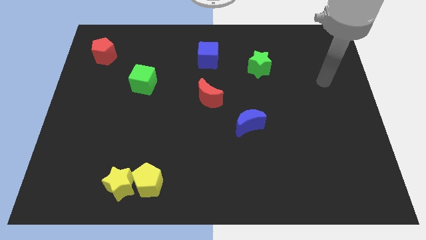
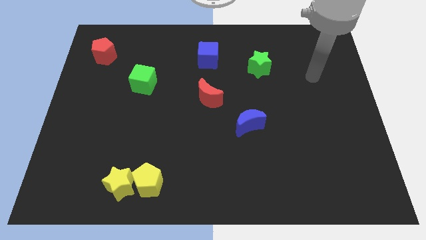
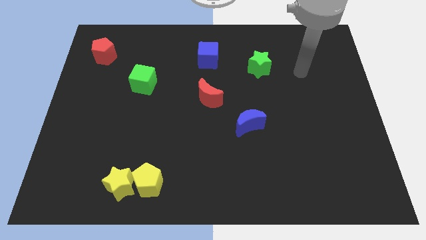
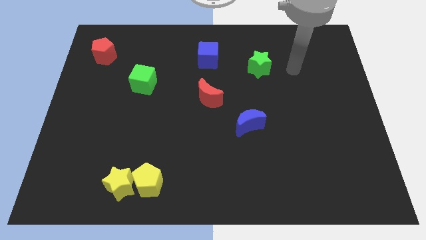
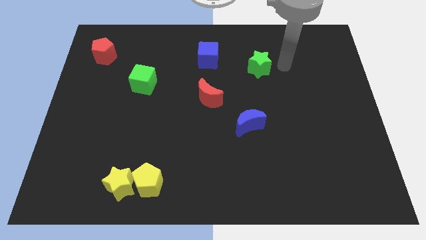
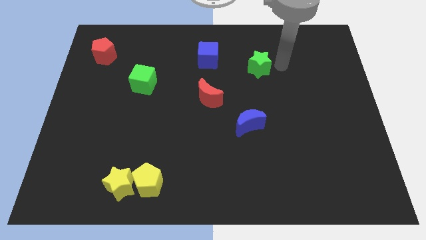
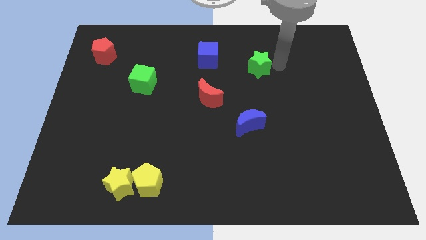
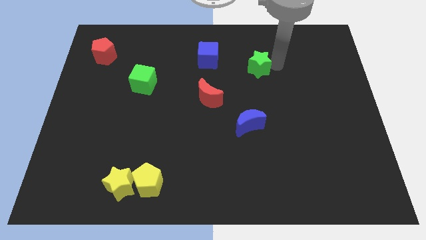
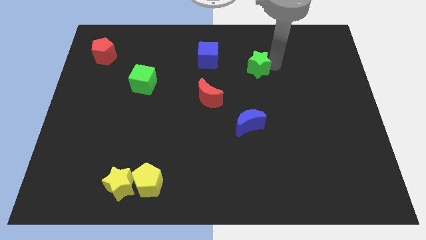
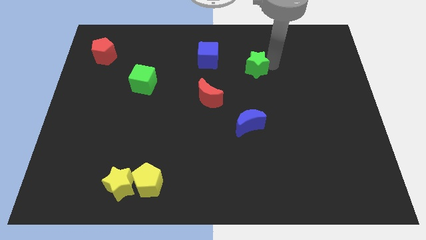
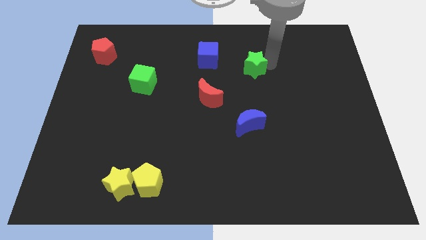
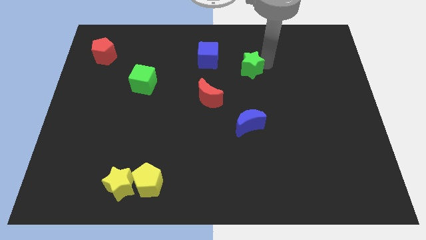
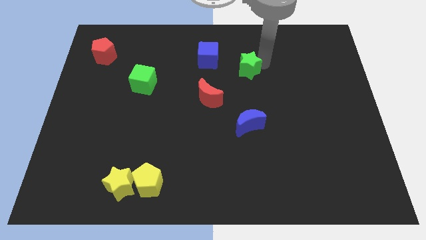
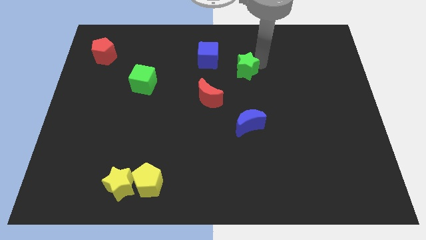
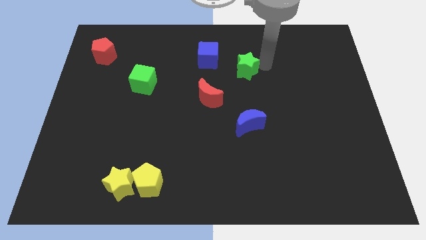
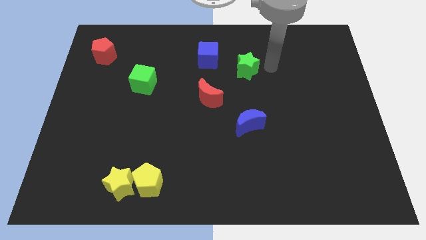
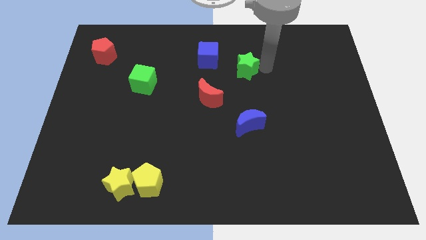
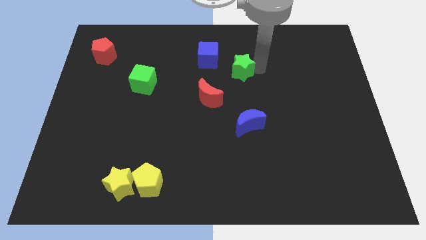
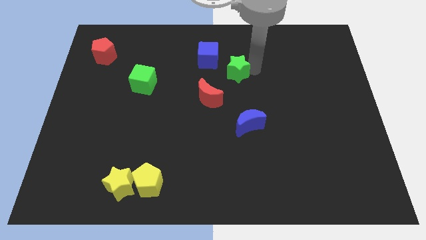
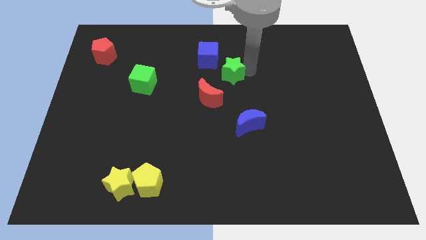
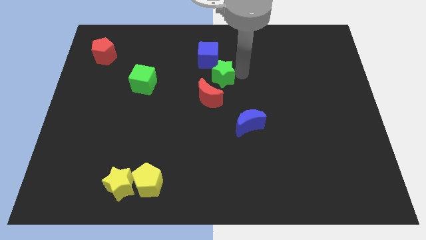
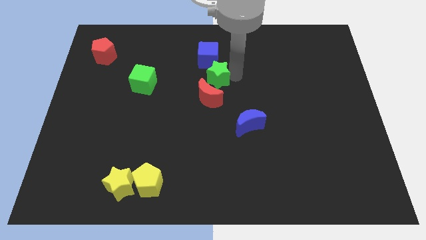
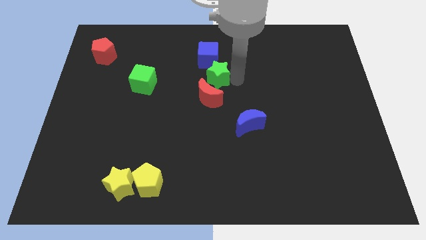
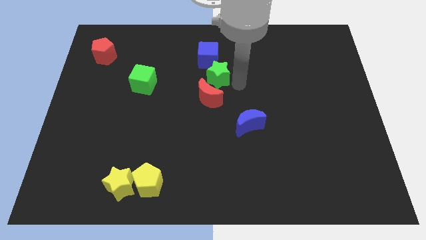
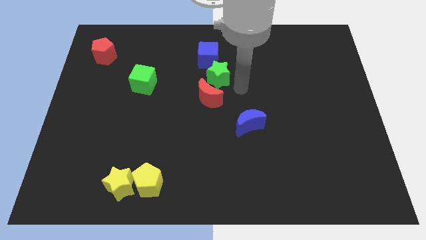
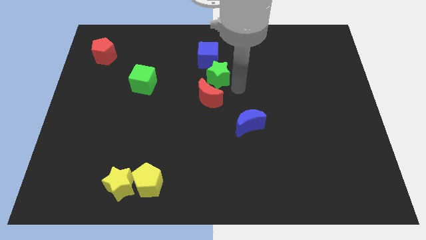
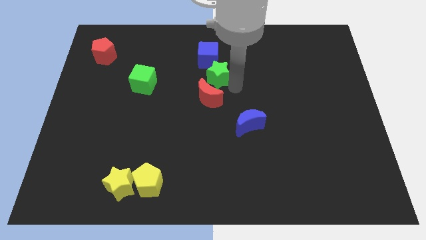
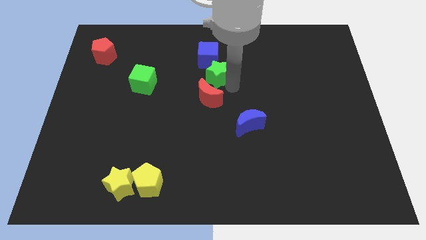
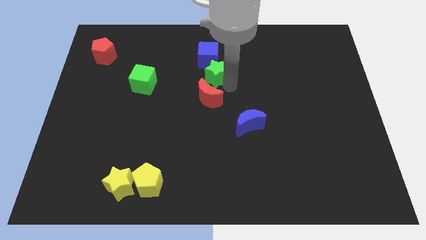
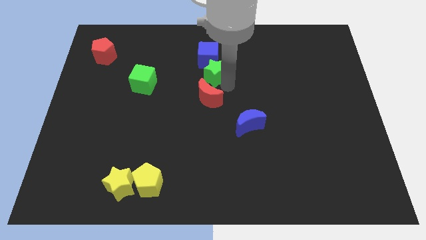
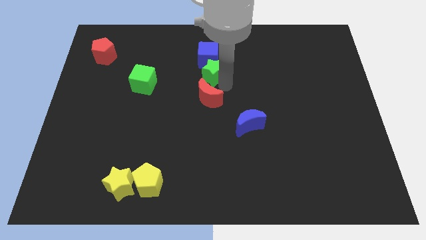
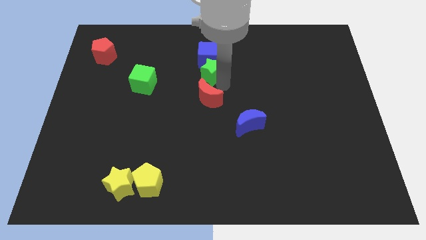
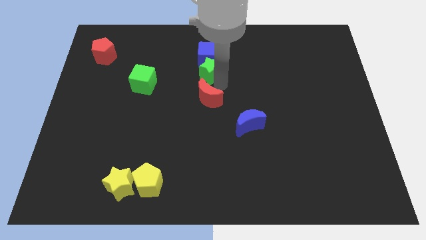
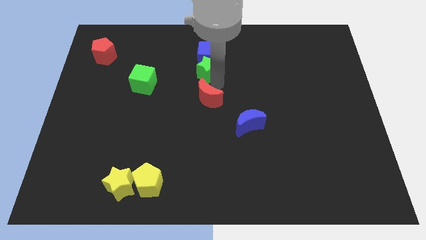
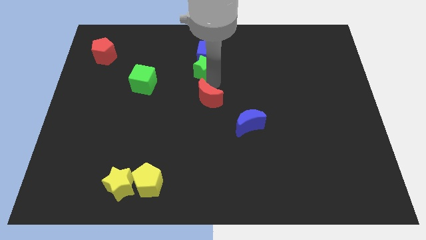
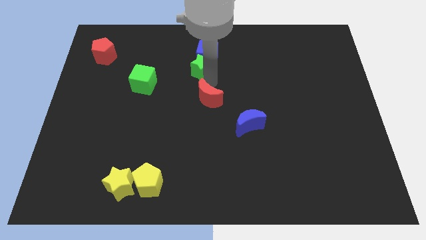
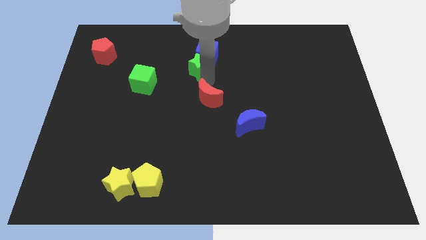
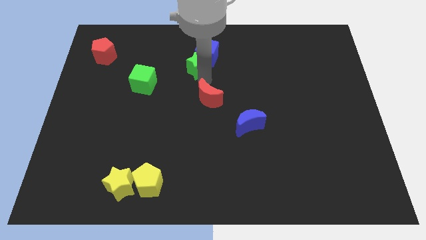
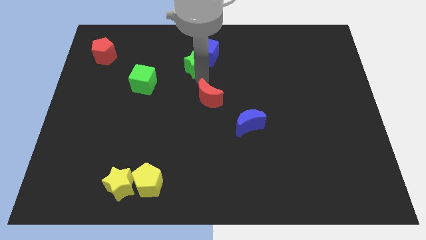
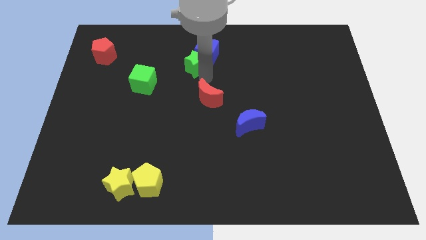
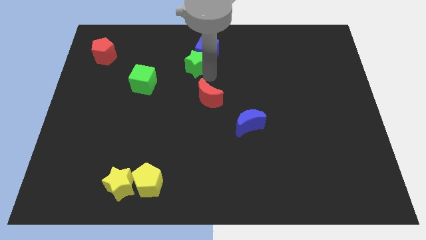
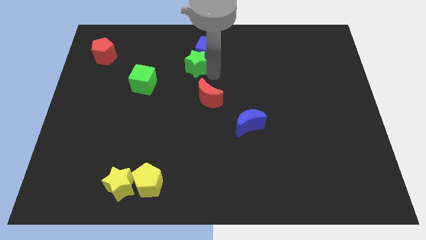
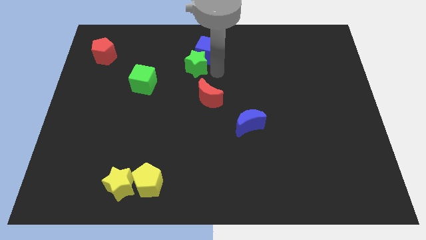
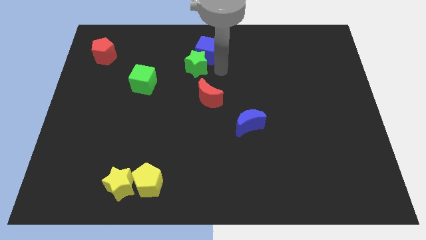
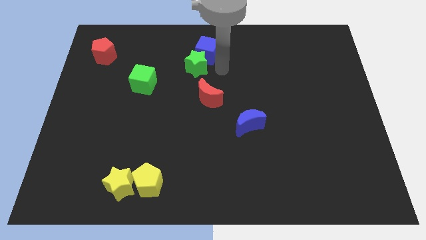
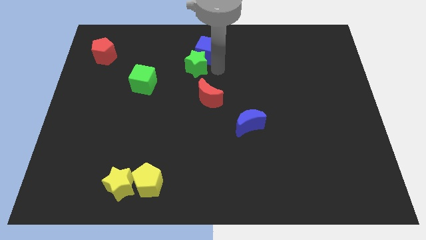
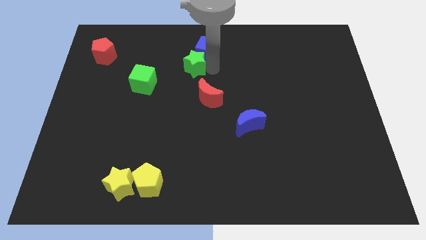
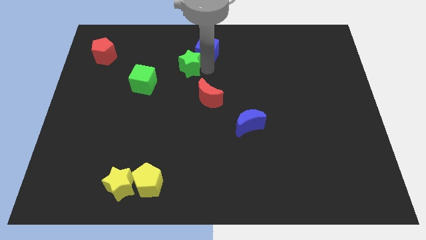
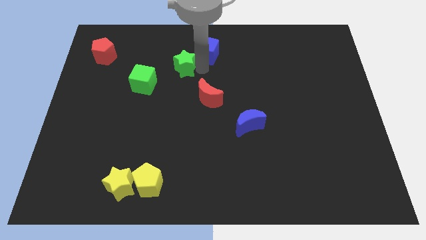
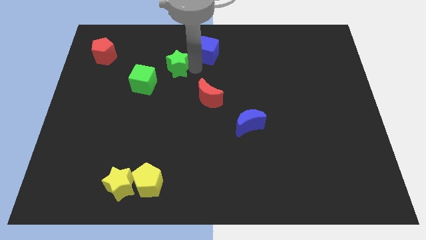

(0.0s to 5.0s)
slide the green star to the left

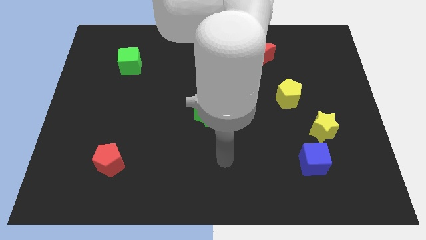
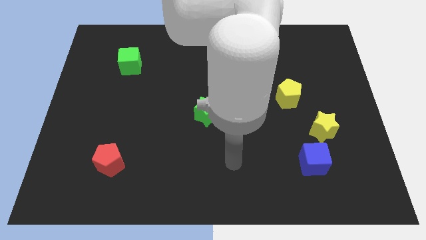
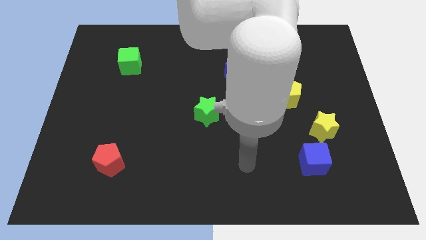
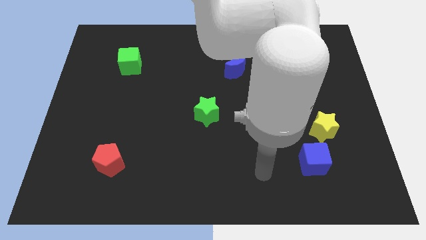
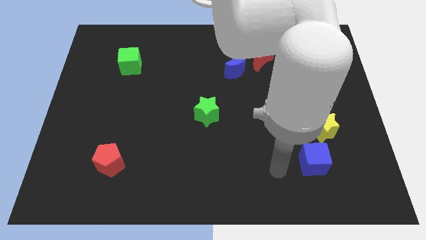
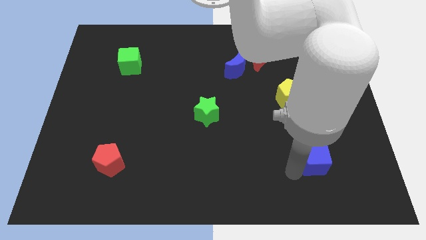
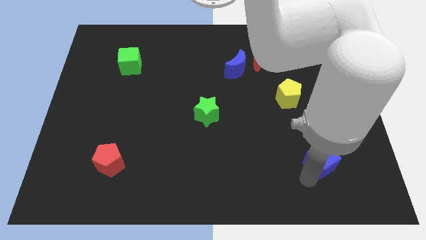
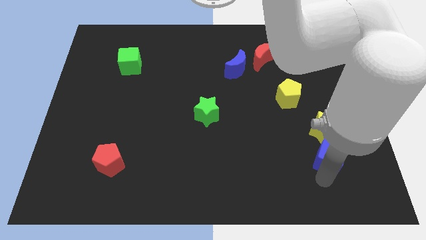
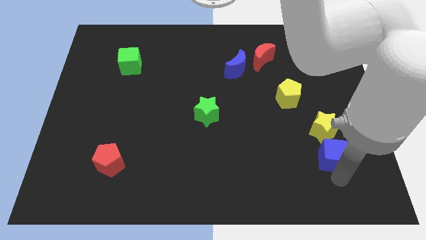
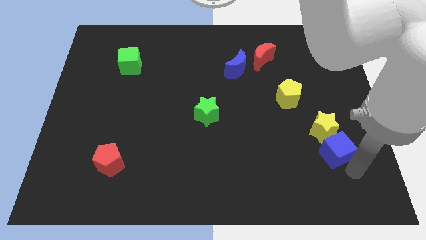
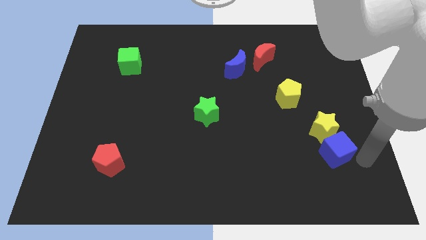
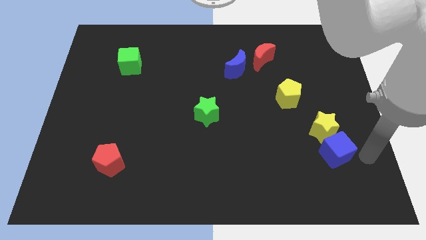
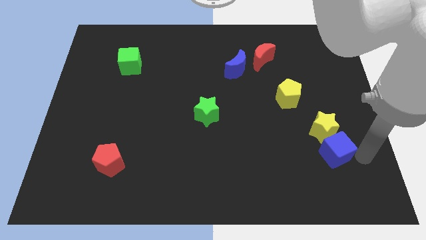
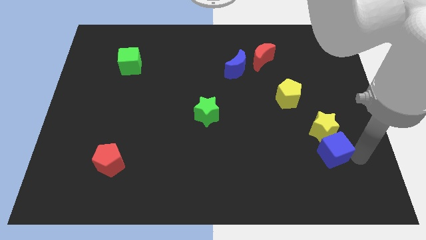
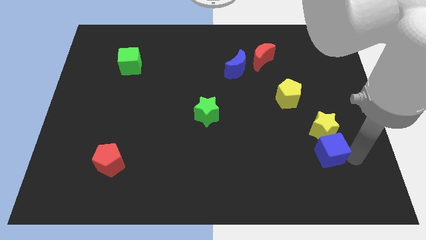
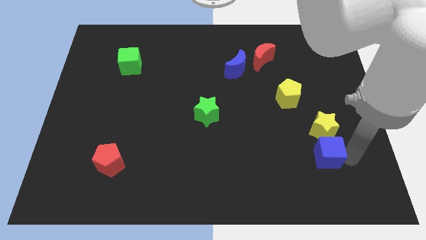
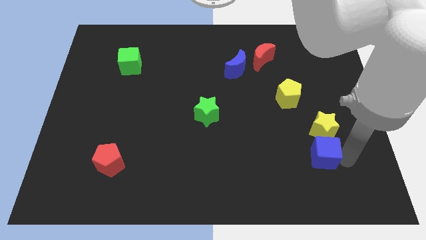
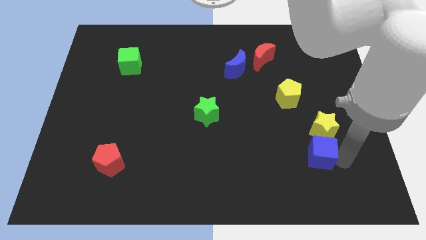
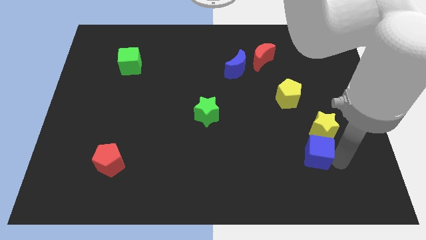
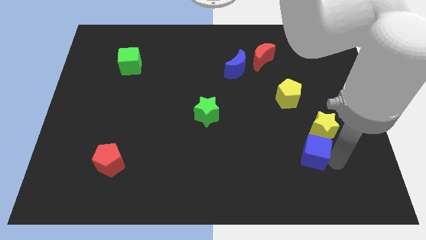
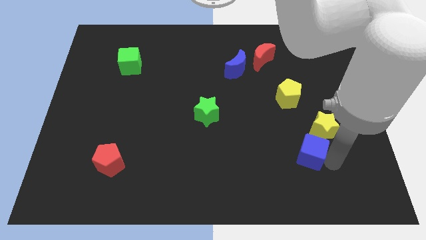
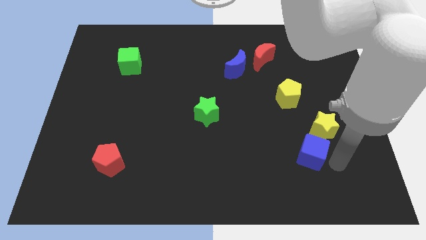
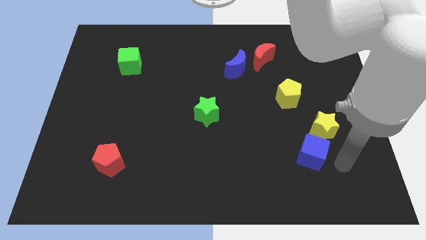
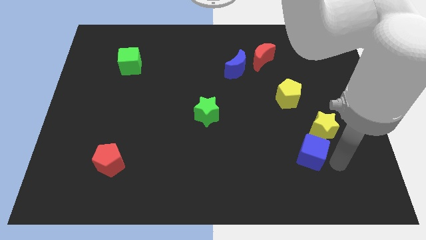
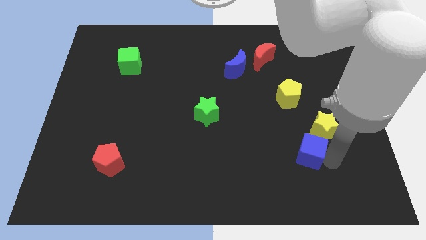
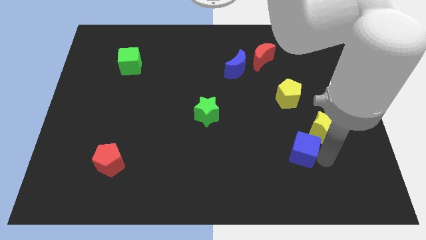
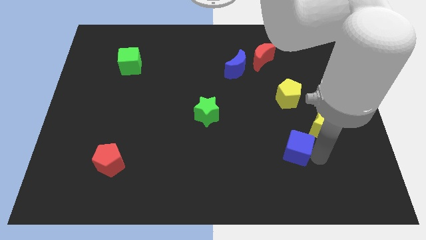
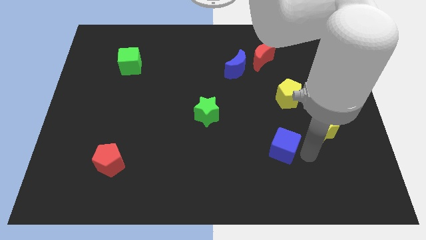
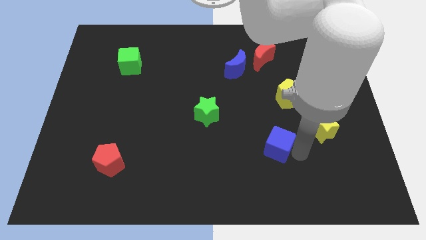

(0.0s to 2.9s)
move the blue cube upwards and then to the left a little
